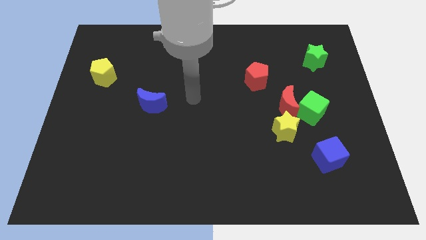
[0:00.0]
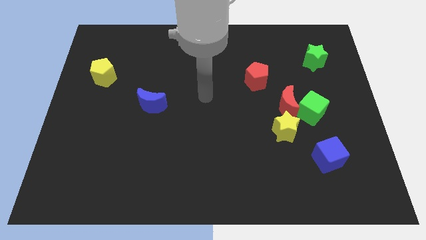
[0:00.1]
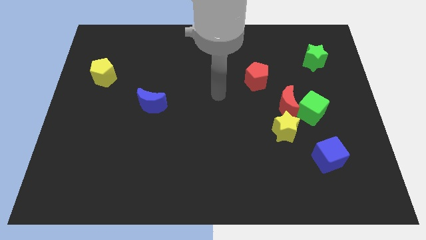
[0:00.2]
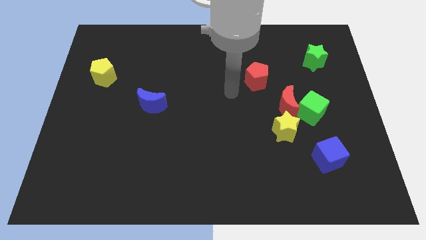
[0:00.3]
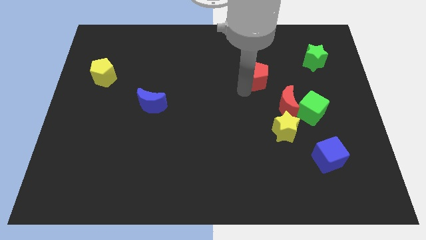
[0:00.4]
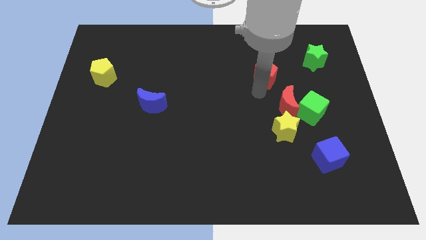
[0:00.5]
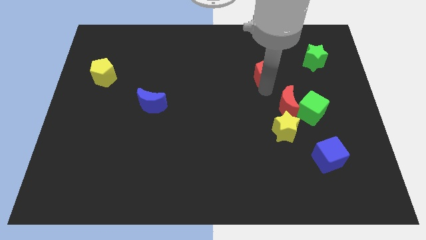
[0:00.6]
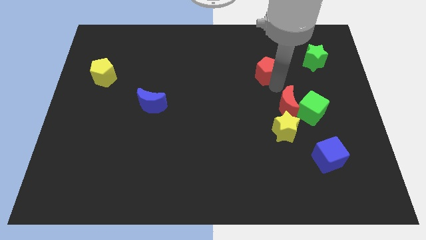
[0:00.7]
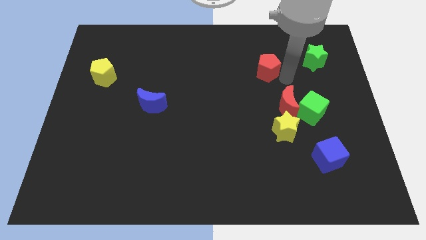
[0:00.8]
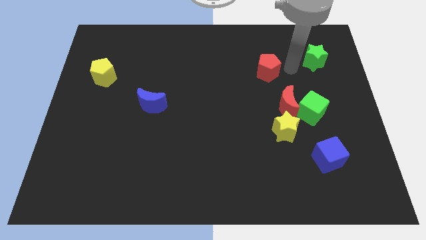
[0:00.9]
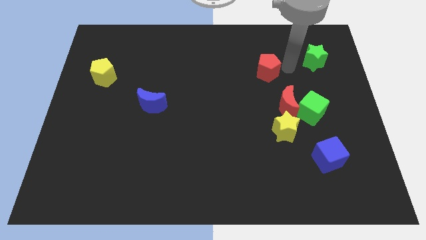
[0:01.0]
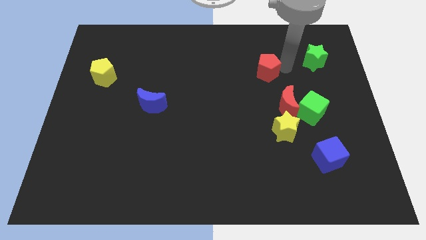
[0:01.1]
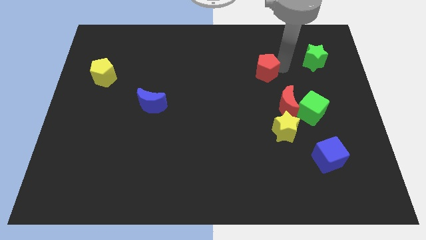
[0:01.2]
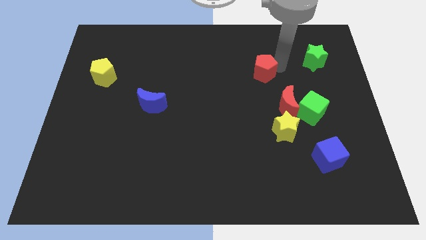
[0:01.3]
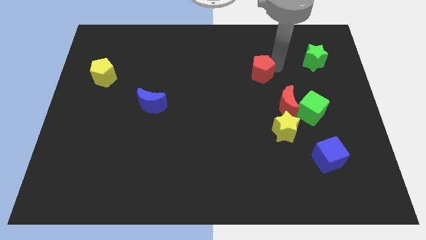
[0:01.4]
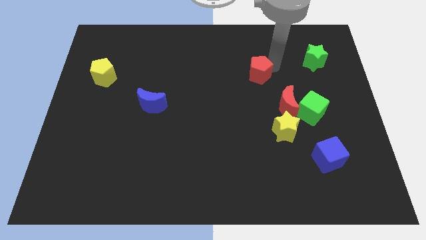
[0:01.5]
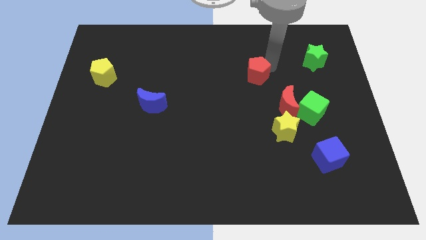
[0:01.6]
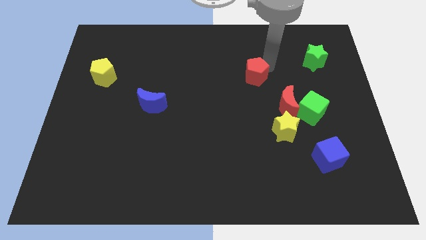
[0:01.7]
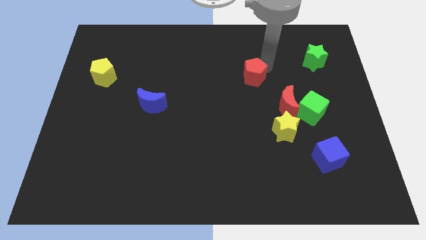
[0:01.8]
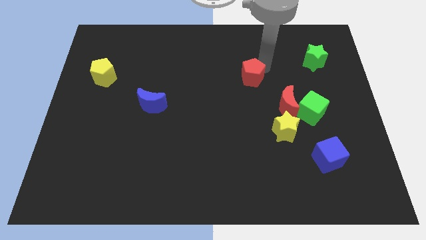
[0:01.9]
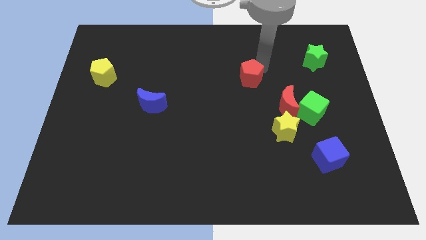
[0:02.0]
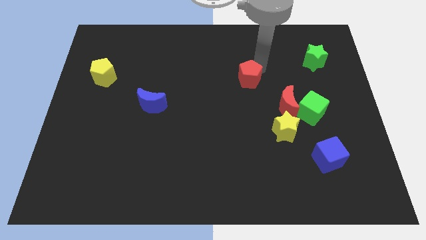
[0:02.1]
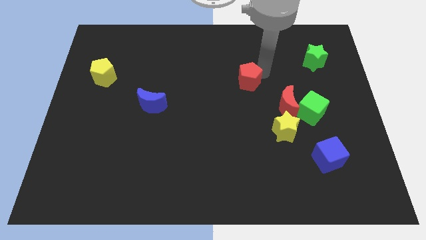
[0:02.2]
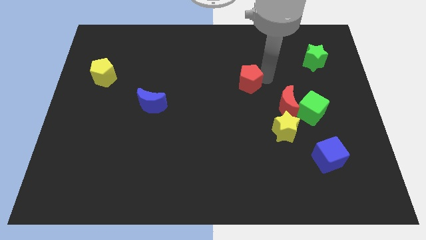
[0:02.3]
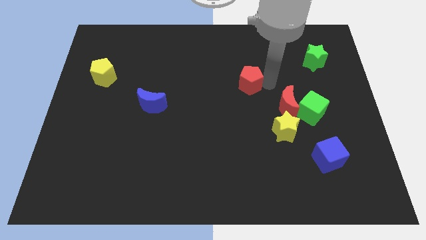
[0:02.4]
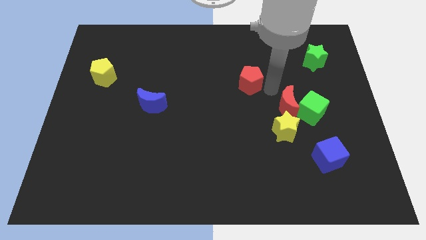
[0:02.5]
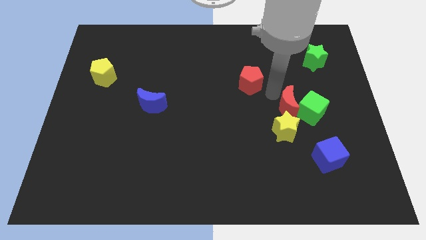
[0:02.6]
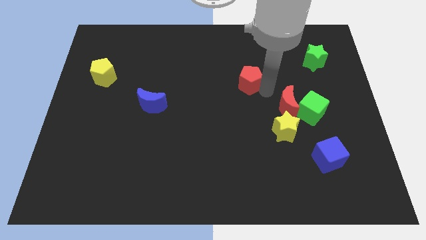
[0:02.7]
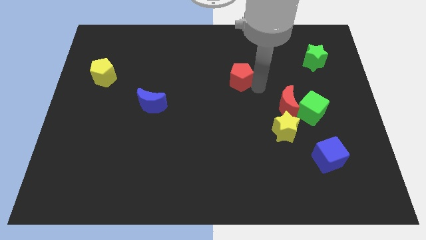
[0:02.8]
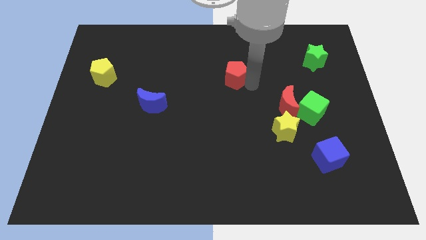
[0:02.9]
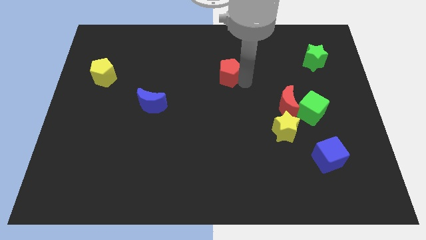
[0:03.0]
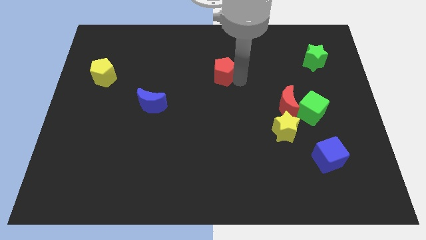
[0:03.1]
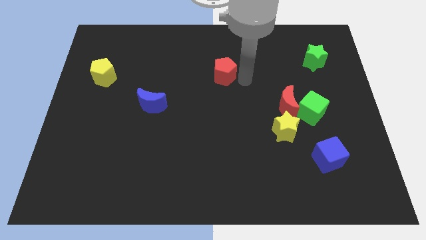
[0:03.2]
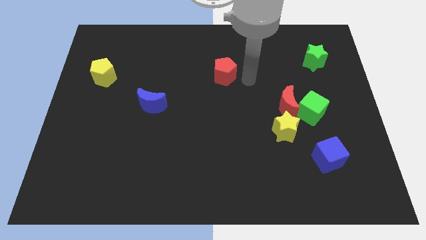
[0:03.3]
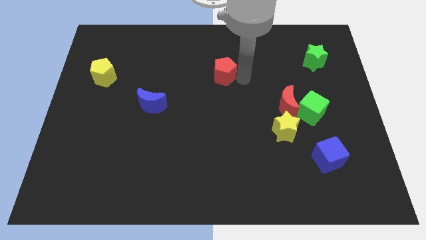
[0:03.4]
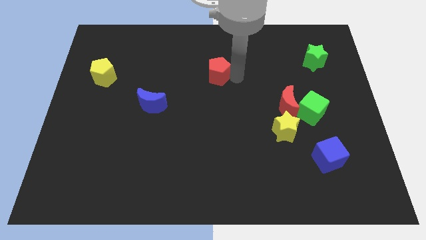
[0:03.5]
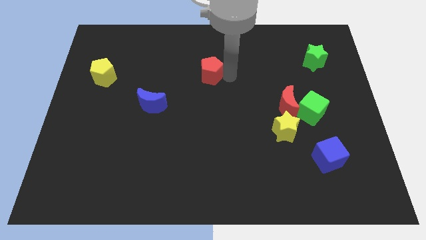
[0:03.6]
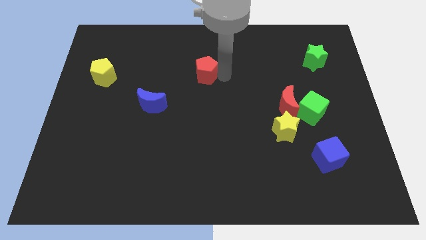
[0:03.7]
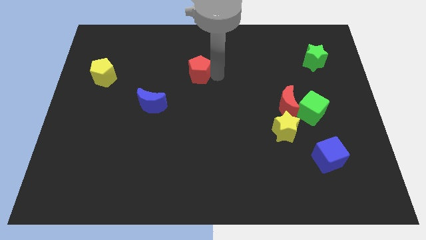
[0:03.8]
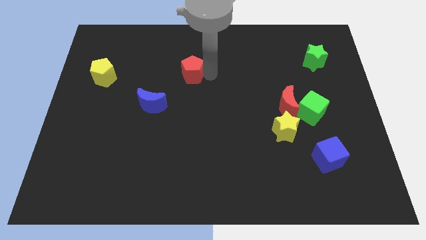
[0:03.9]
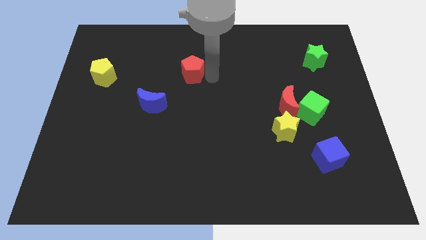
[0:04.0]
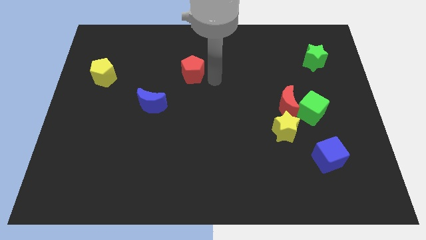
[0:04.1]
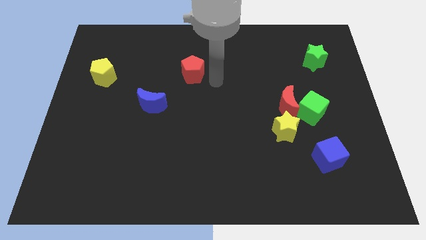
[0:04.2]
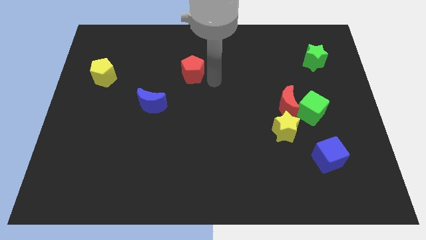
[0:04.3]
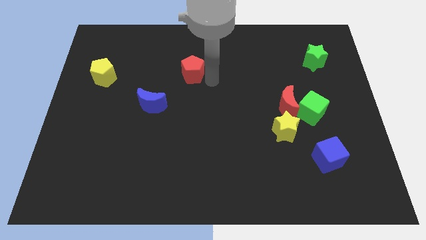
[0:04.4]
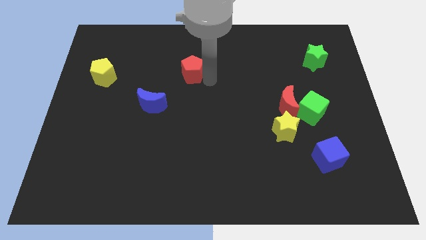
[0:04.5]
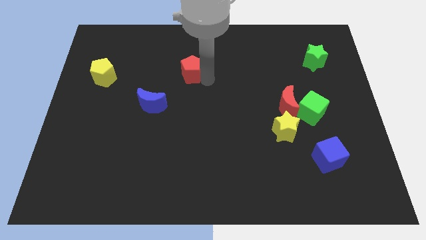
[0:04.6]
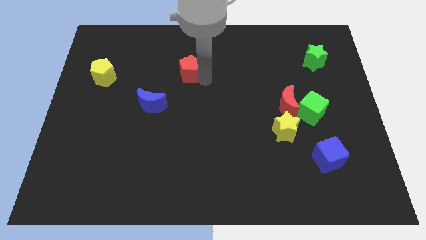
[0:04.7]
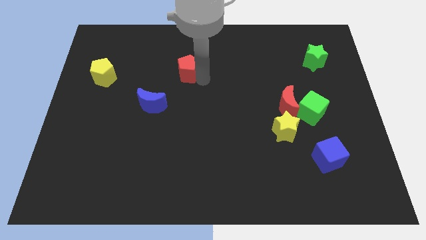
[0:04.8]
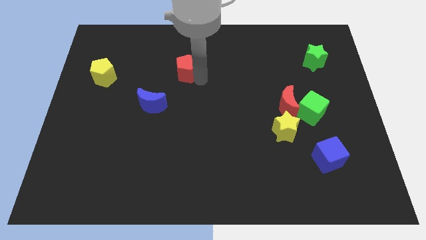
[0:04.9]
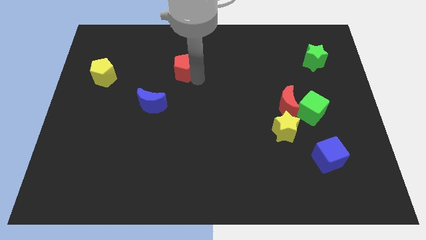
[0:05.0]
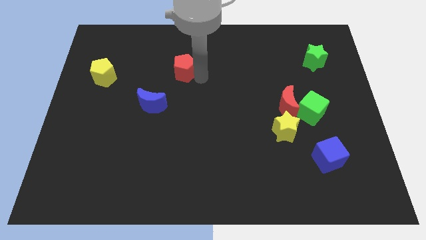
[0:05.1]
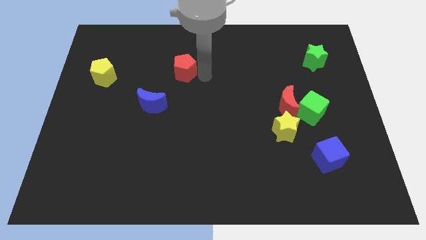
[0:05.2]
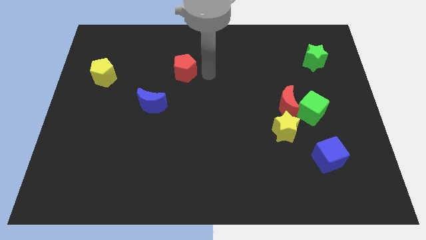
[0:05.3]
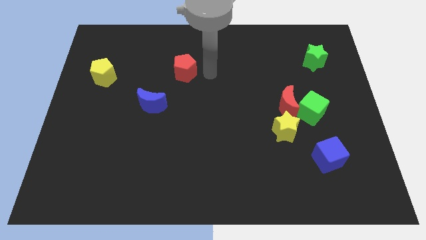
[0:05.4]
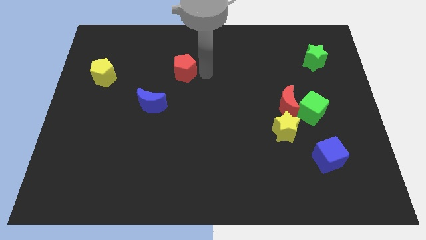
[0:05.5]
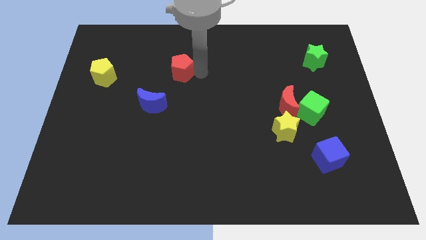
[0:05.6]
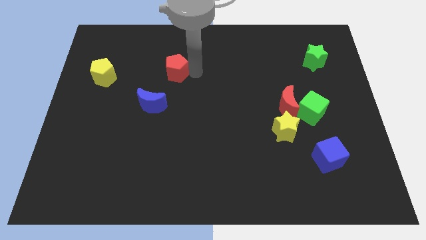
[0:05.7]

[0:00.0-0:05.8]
push the red pentagon to the left

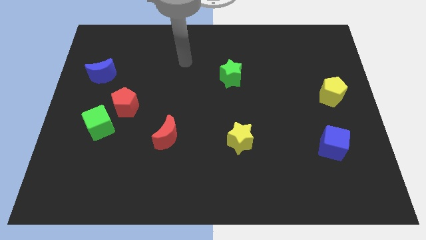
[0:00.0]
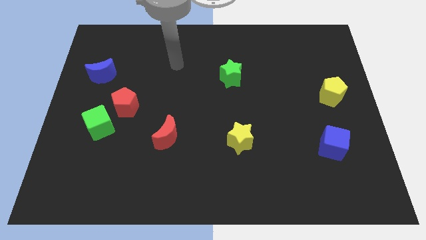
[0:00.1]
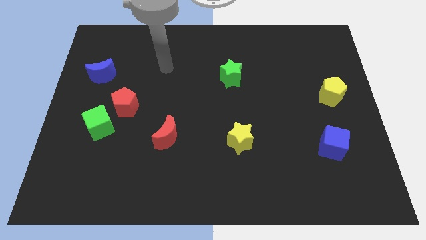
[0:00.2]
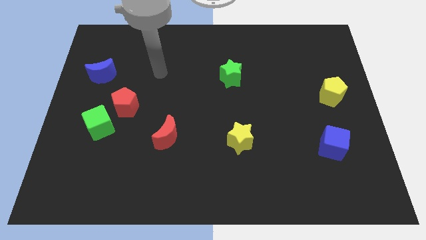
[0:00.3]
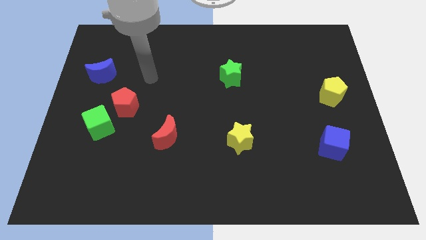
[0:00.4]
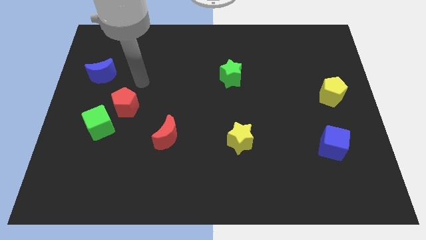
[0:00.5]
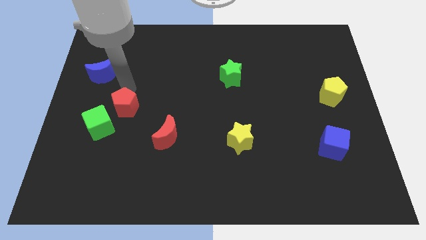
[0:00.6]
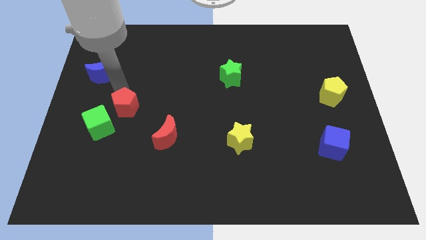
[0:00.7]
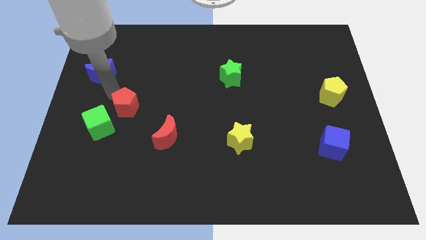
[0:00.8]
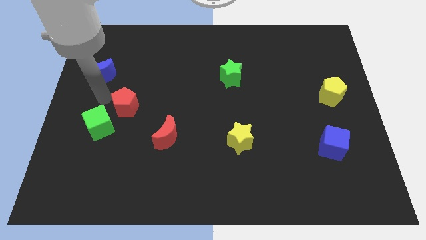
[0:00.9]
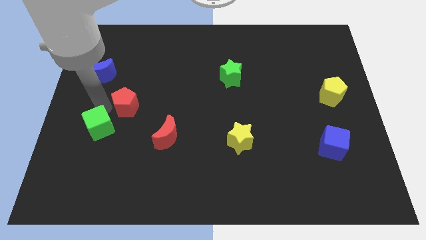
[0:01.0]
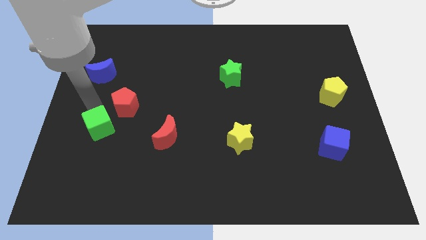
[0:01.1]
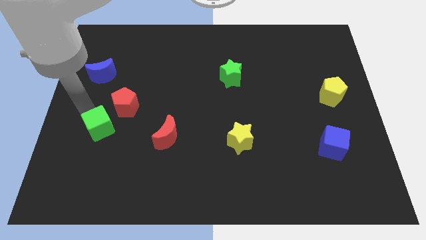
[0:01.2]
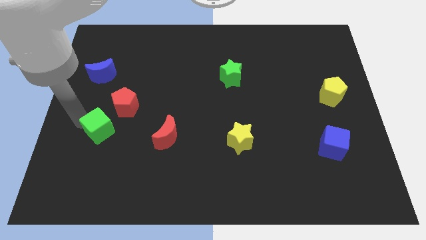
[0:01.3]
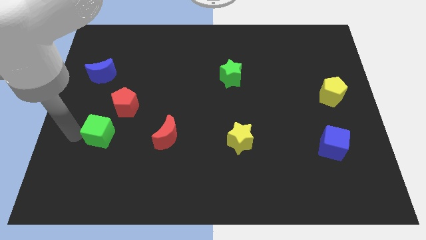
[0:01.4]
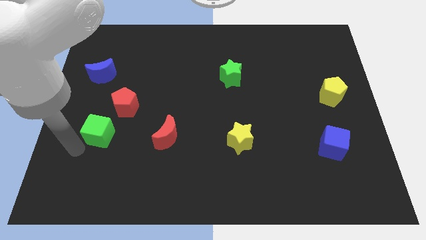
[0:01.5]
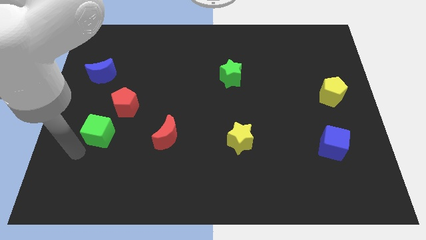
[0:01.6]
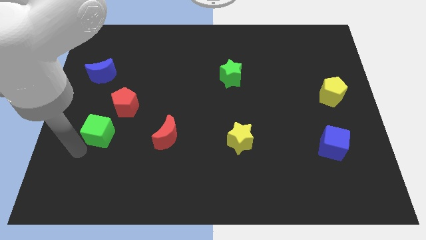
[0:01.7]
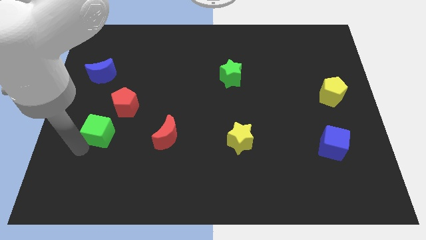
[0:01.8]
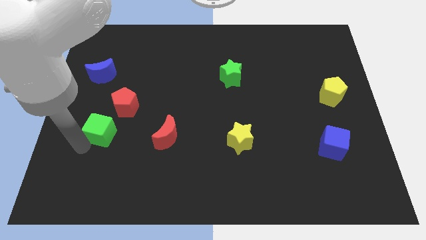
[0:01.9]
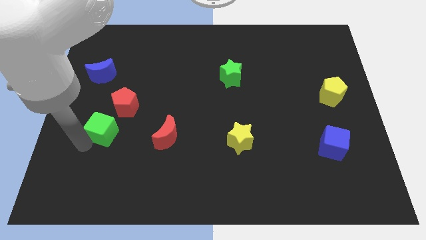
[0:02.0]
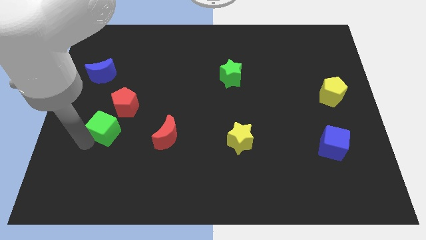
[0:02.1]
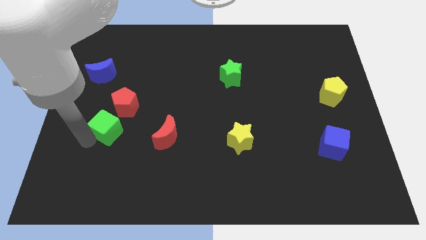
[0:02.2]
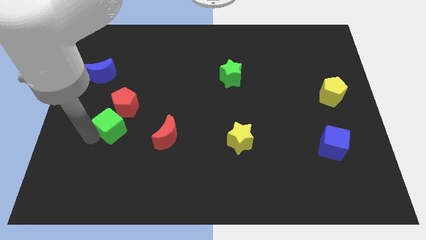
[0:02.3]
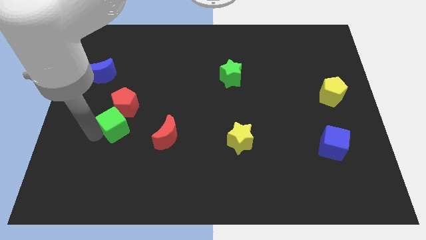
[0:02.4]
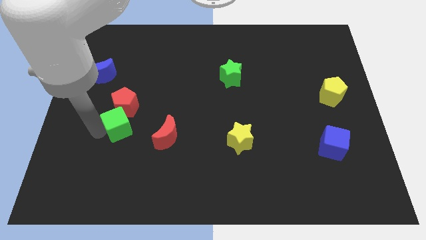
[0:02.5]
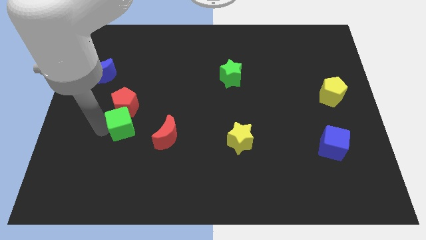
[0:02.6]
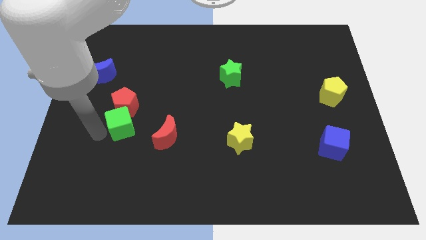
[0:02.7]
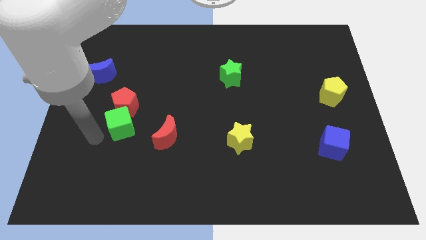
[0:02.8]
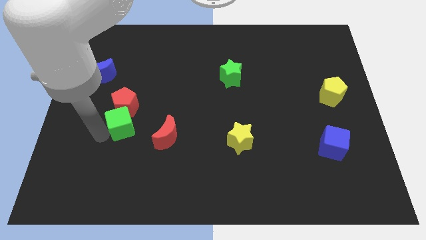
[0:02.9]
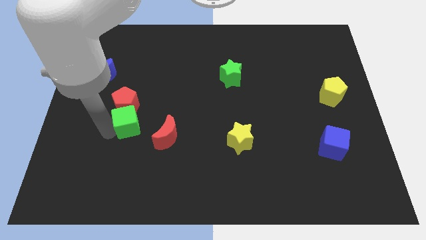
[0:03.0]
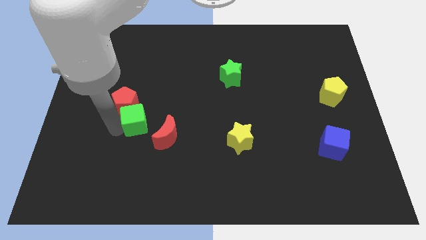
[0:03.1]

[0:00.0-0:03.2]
slide the green cube somewhat right
